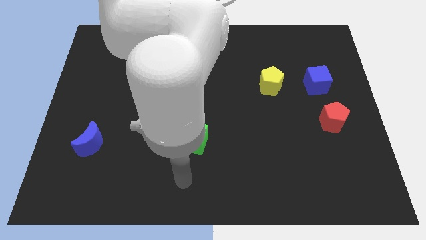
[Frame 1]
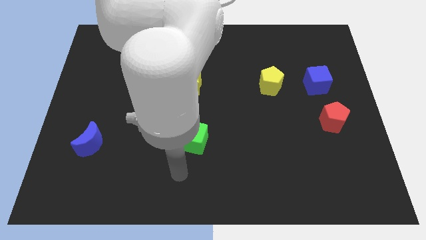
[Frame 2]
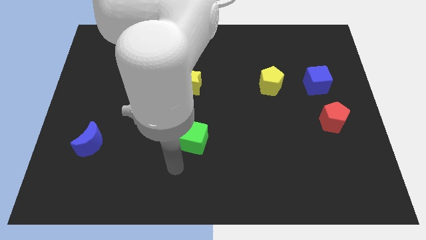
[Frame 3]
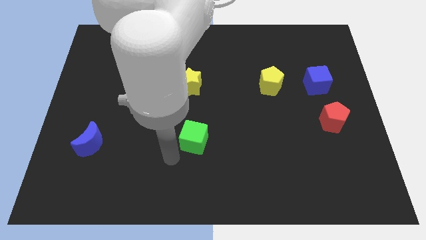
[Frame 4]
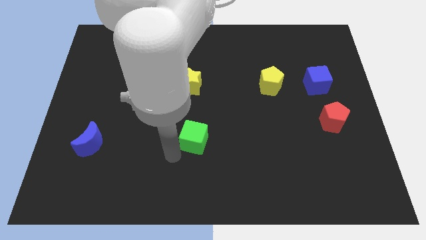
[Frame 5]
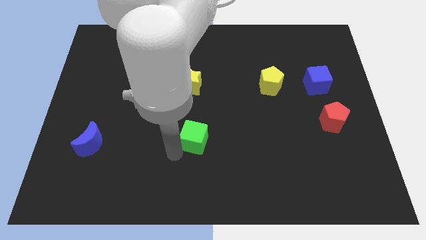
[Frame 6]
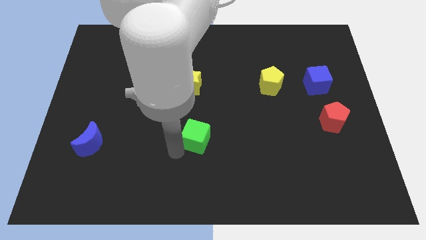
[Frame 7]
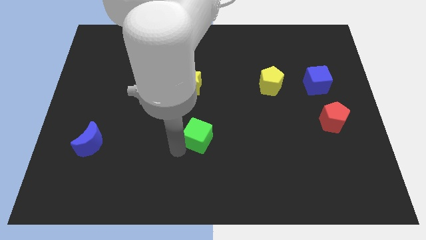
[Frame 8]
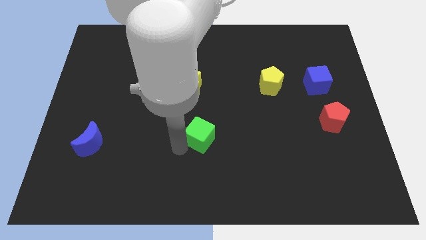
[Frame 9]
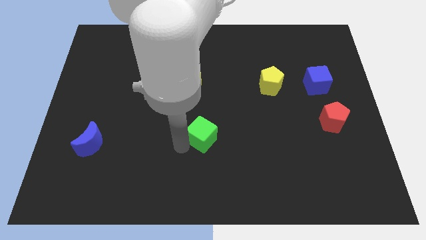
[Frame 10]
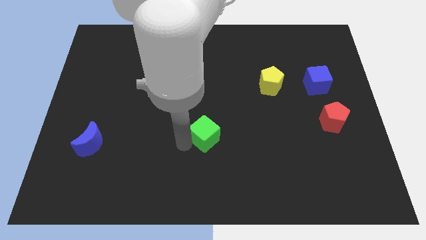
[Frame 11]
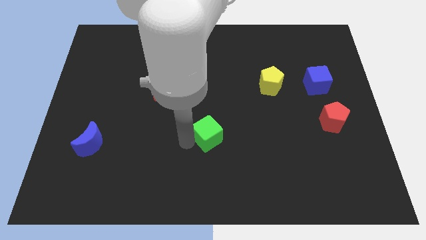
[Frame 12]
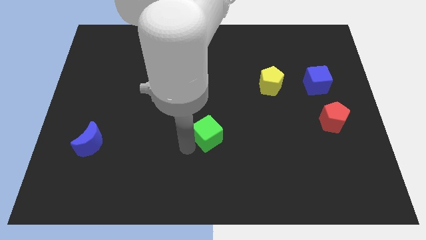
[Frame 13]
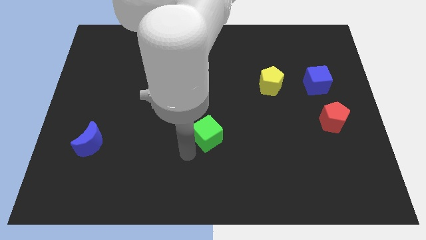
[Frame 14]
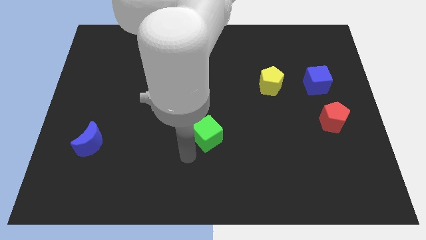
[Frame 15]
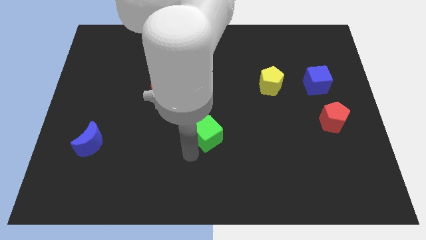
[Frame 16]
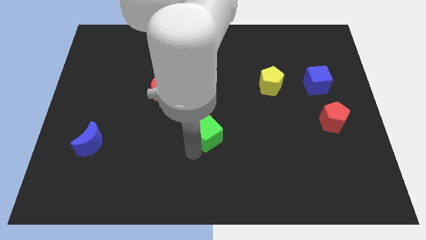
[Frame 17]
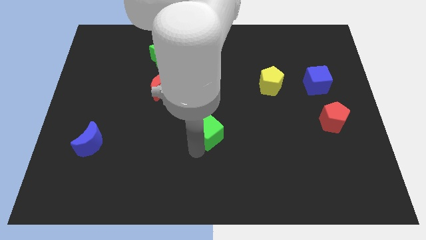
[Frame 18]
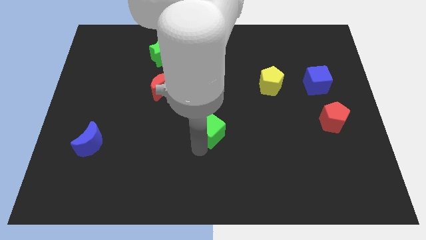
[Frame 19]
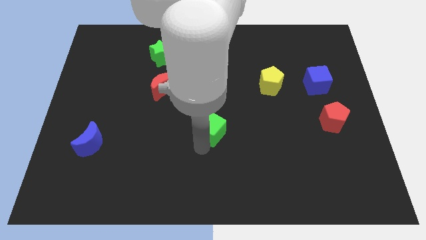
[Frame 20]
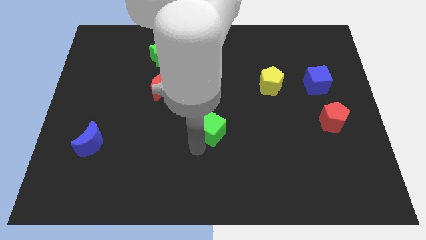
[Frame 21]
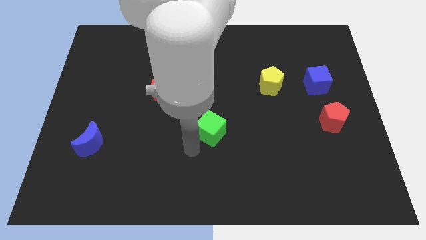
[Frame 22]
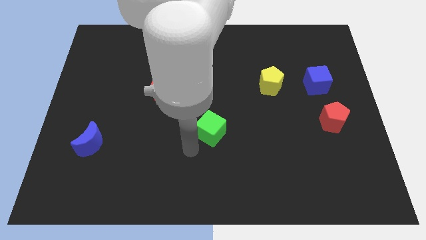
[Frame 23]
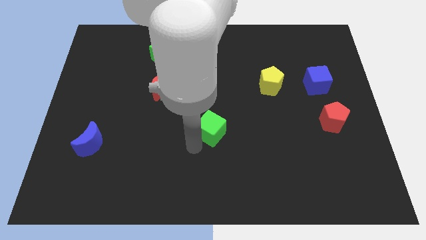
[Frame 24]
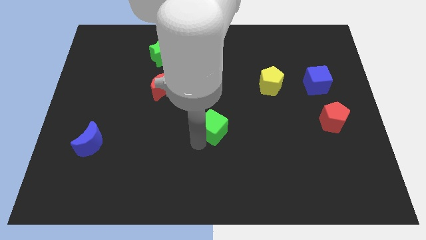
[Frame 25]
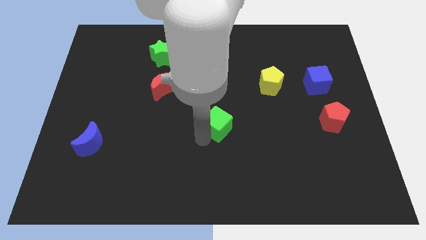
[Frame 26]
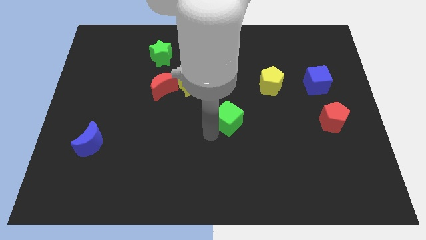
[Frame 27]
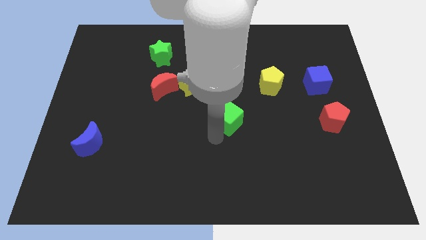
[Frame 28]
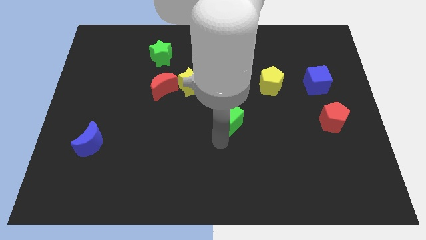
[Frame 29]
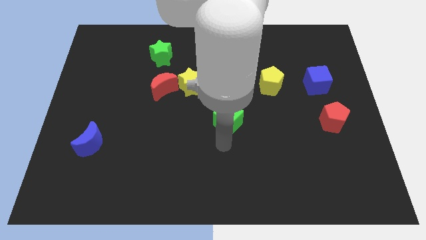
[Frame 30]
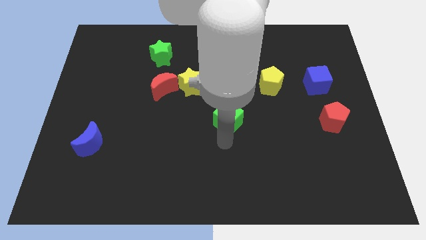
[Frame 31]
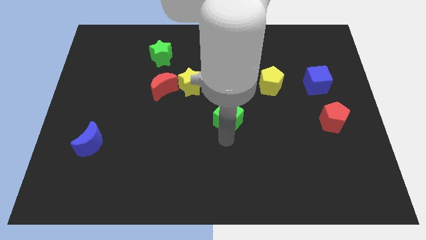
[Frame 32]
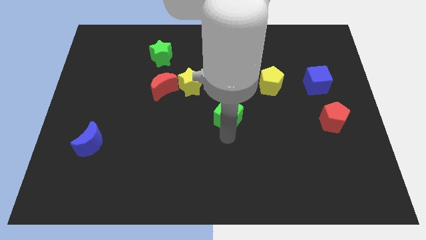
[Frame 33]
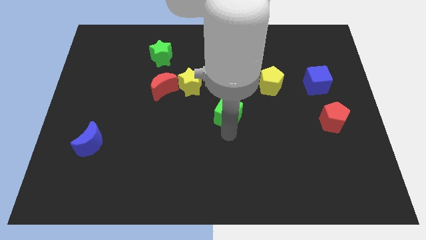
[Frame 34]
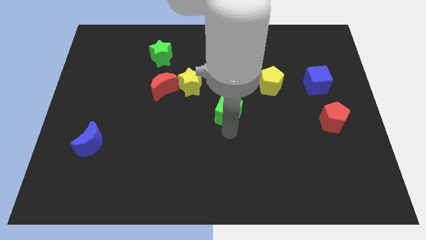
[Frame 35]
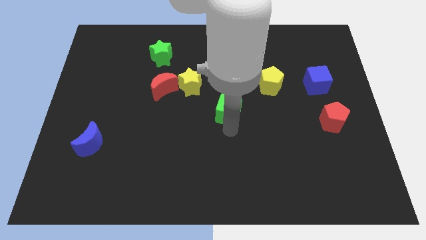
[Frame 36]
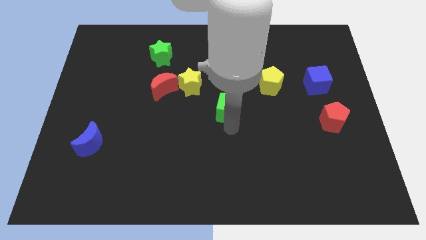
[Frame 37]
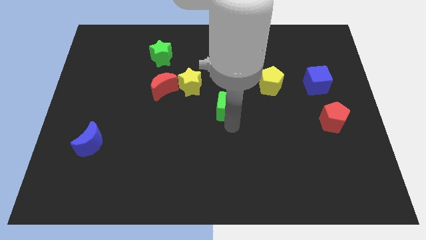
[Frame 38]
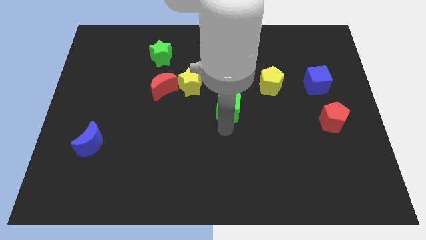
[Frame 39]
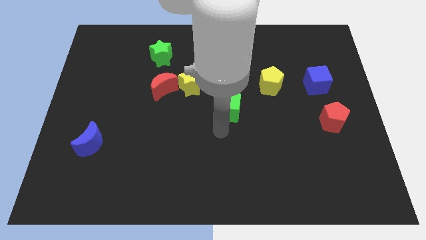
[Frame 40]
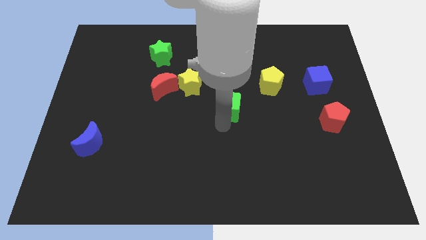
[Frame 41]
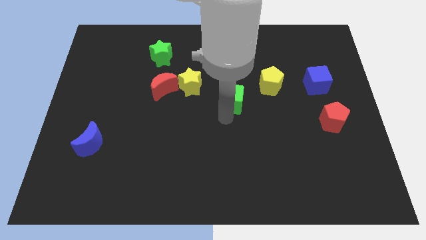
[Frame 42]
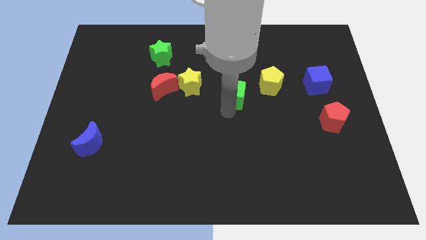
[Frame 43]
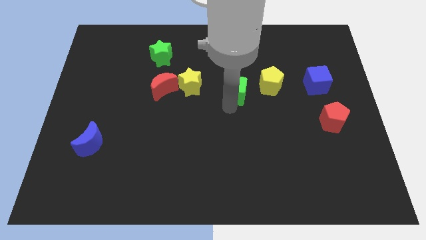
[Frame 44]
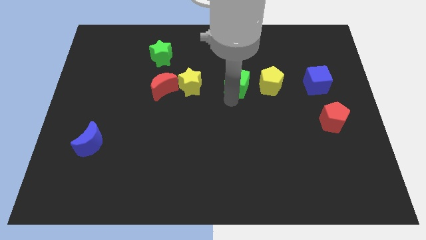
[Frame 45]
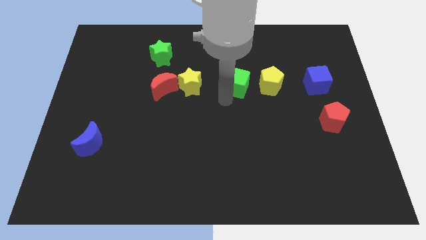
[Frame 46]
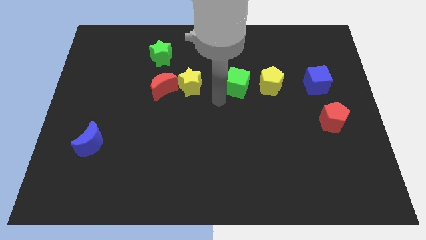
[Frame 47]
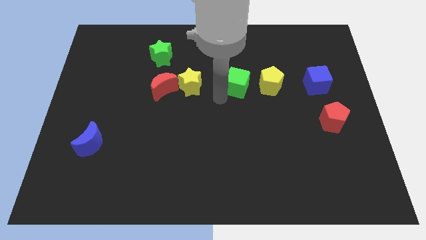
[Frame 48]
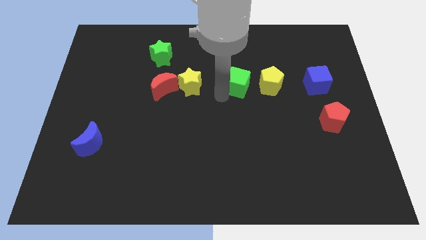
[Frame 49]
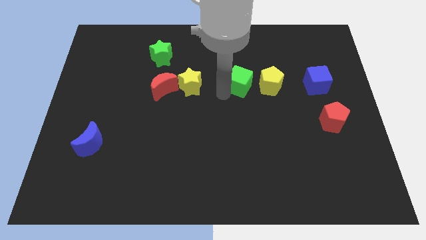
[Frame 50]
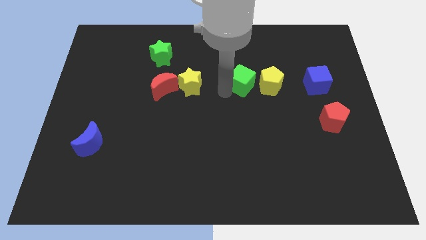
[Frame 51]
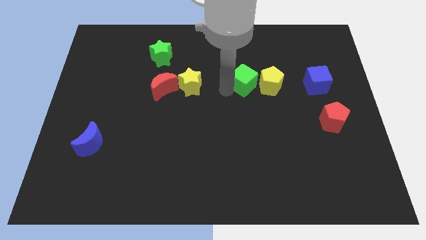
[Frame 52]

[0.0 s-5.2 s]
slide the green cube up and right

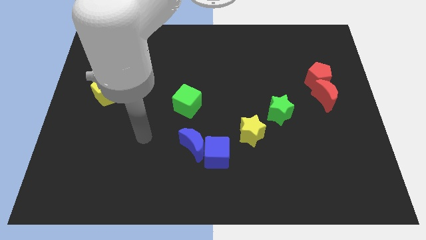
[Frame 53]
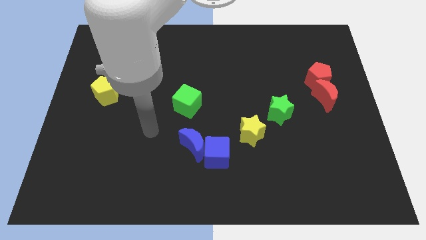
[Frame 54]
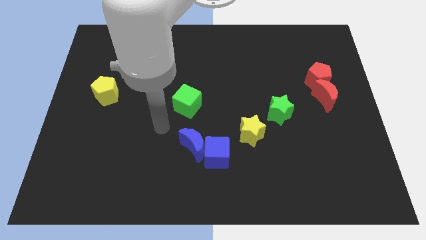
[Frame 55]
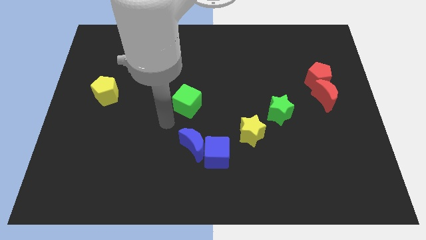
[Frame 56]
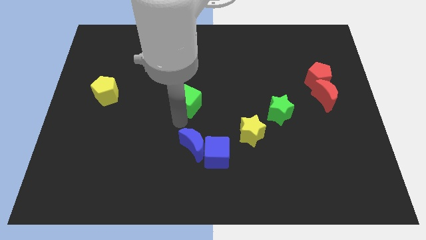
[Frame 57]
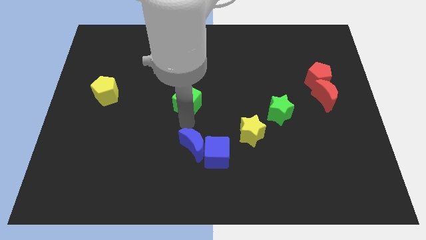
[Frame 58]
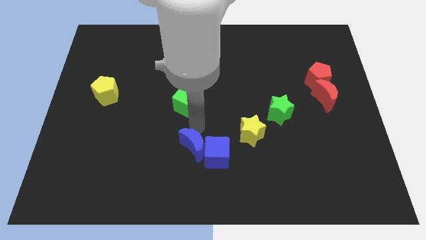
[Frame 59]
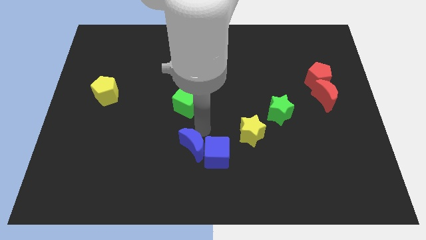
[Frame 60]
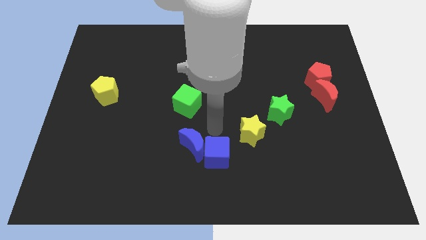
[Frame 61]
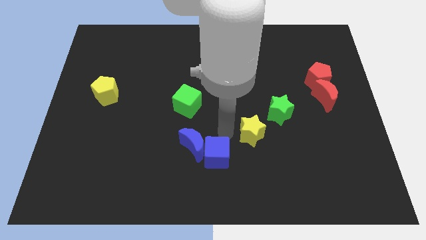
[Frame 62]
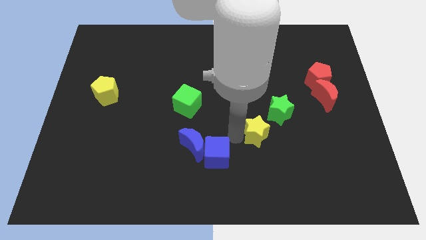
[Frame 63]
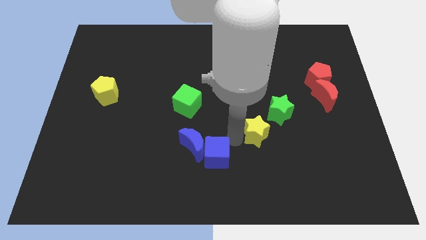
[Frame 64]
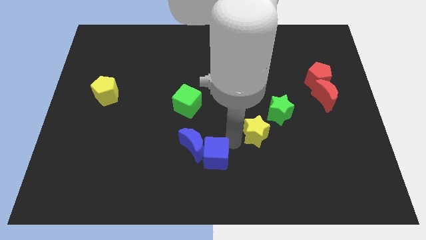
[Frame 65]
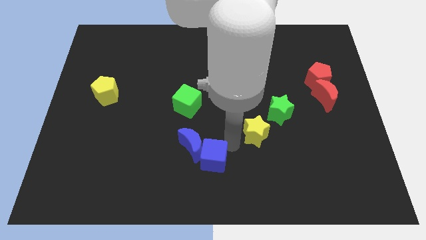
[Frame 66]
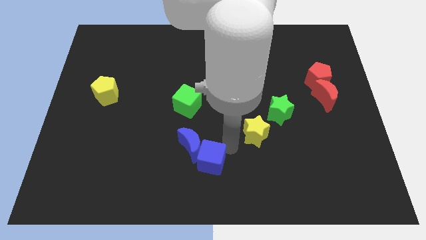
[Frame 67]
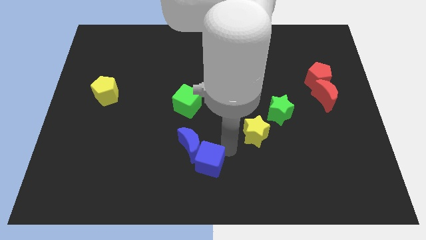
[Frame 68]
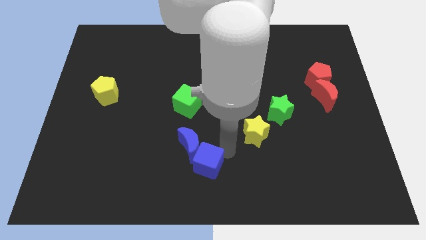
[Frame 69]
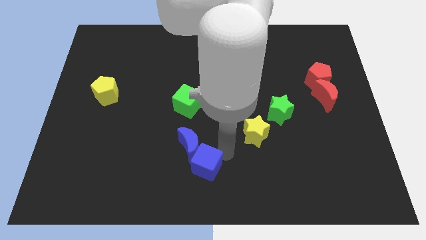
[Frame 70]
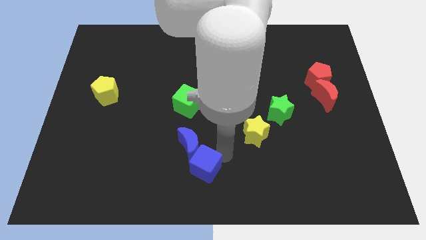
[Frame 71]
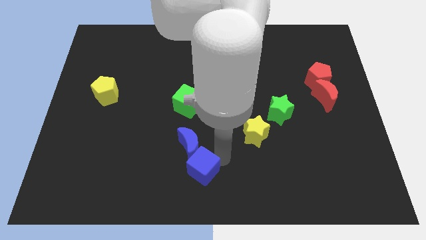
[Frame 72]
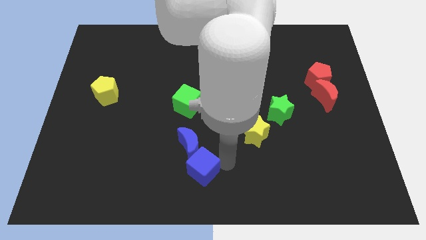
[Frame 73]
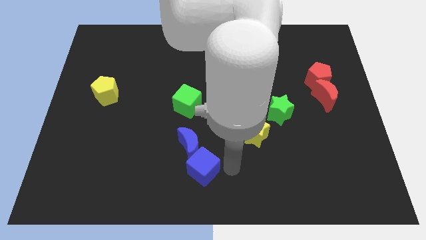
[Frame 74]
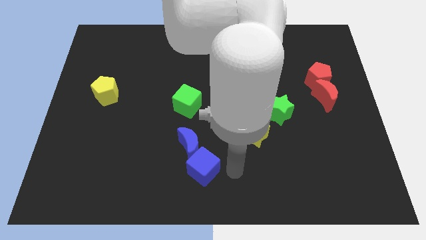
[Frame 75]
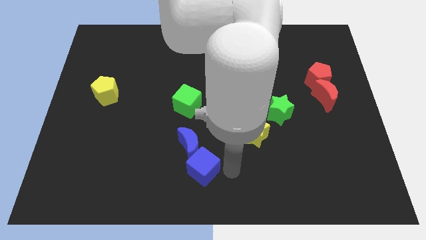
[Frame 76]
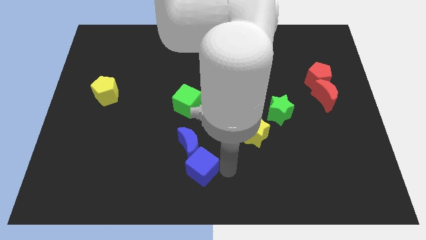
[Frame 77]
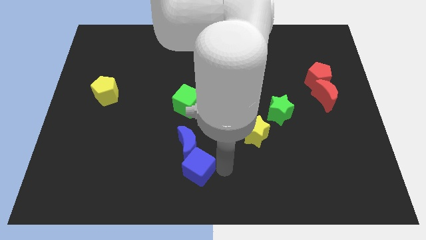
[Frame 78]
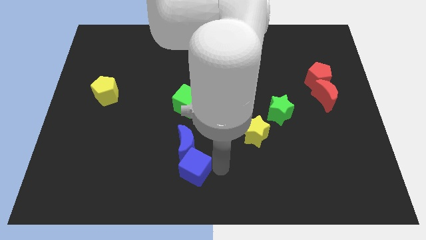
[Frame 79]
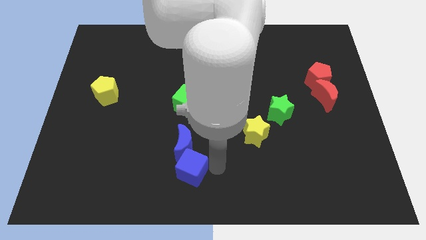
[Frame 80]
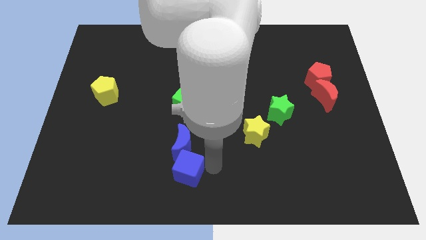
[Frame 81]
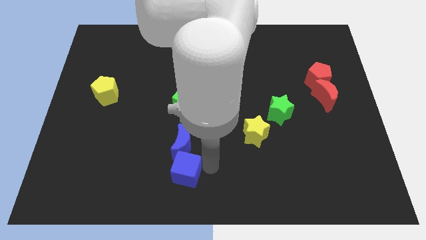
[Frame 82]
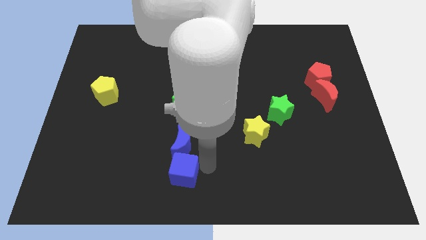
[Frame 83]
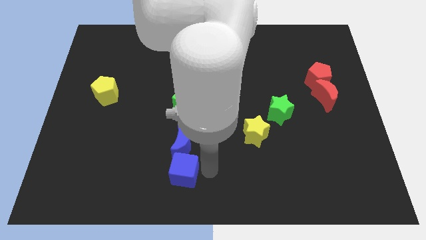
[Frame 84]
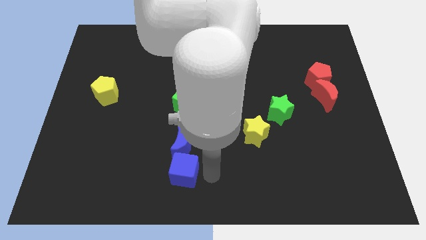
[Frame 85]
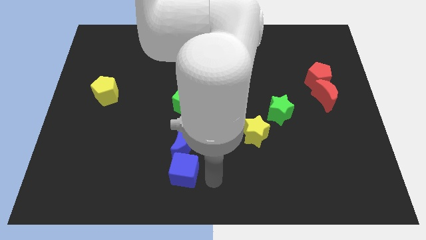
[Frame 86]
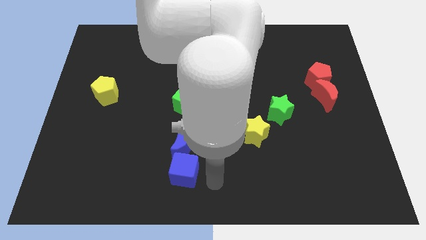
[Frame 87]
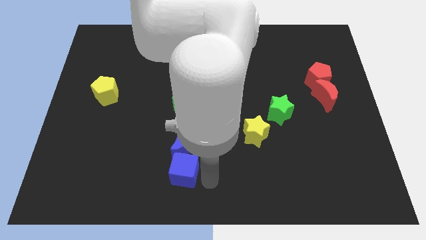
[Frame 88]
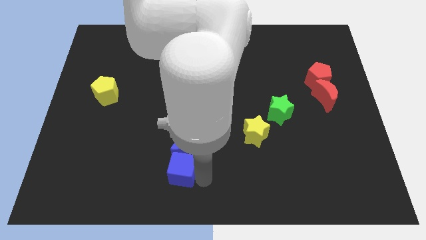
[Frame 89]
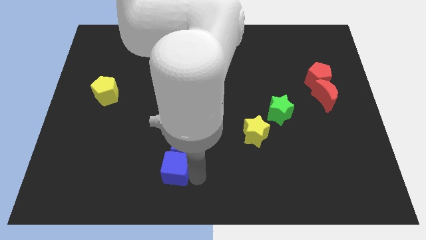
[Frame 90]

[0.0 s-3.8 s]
slightly push the blue cube left
